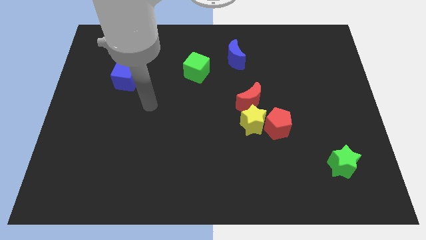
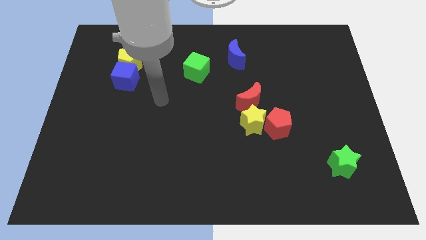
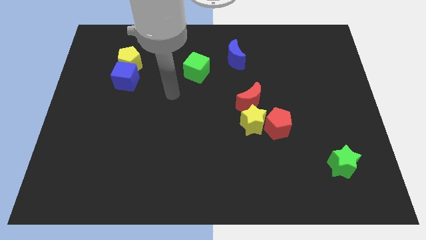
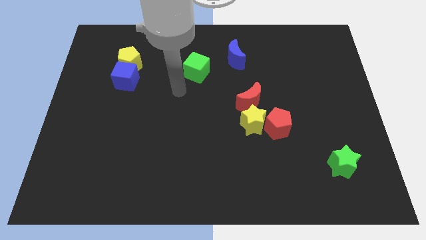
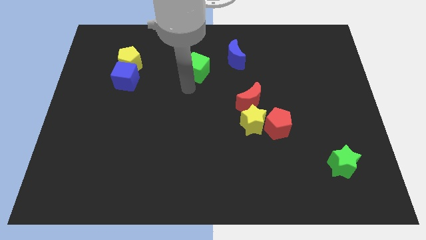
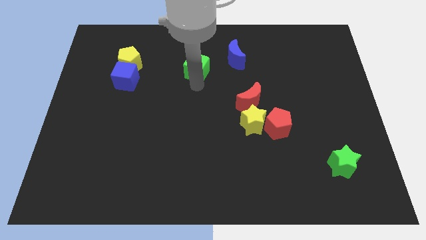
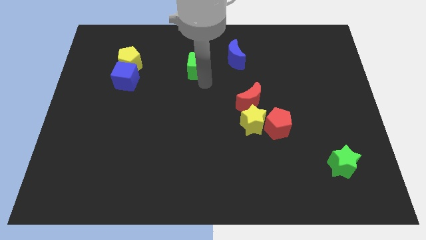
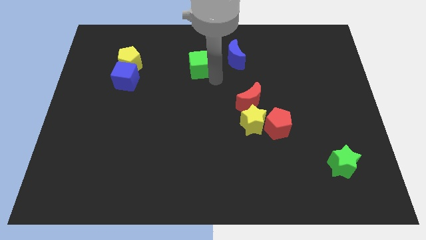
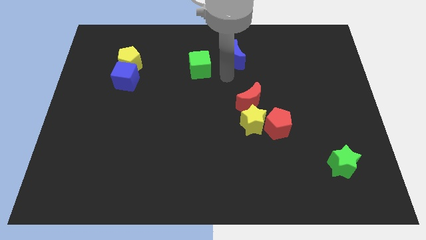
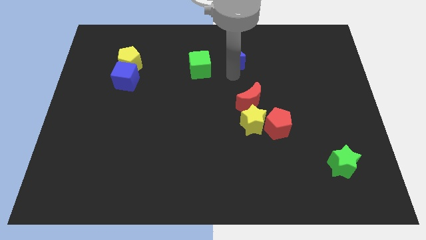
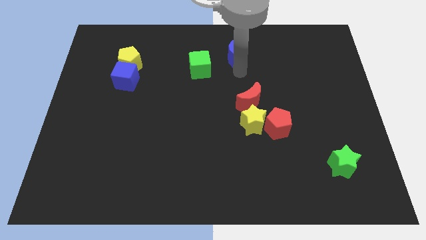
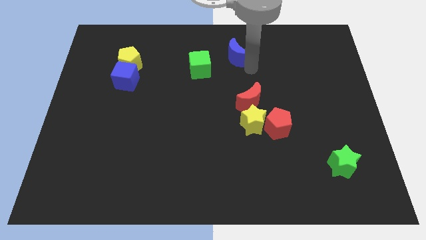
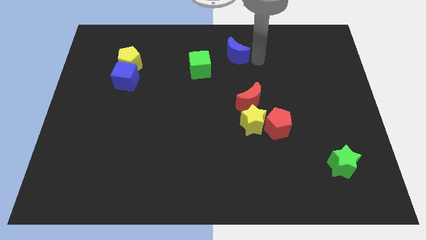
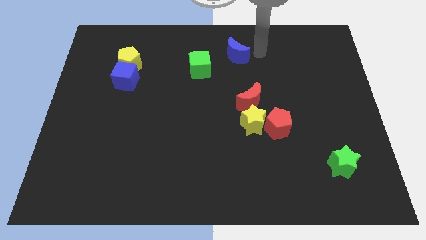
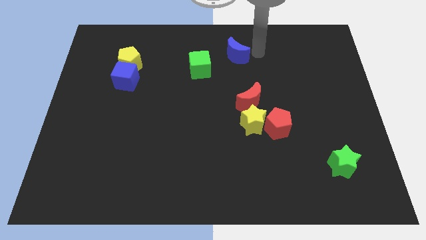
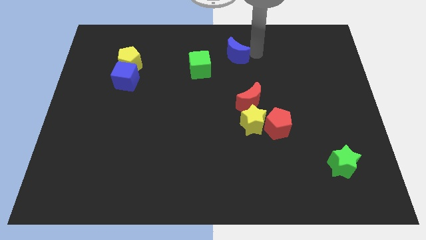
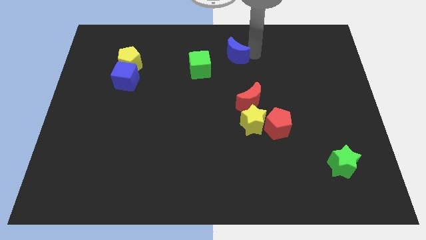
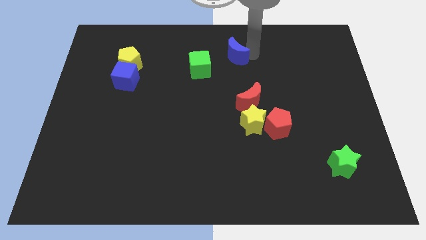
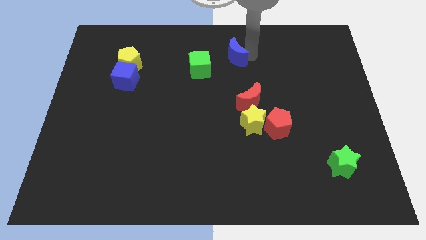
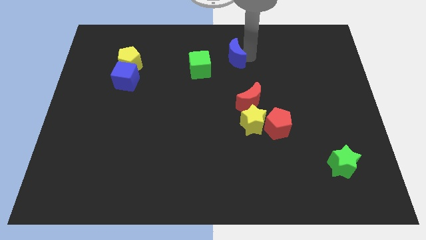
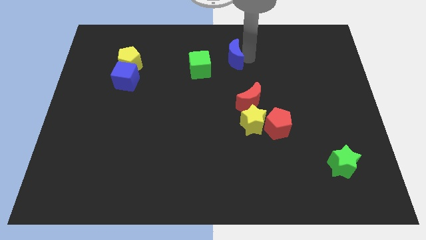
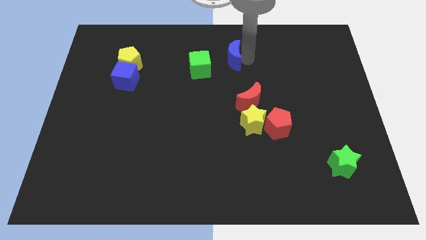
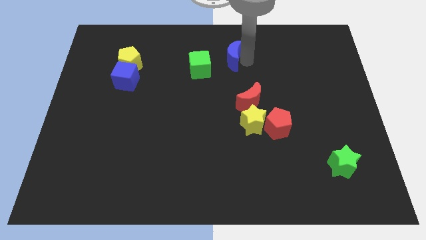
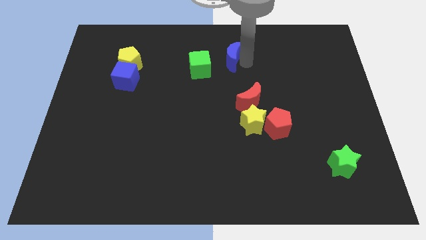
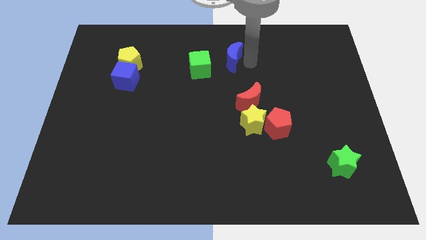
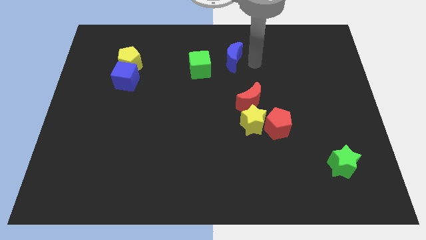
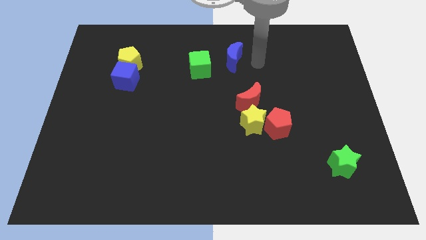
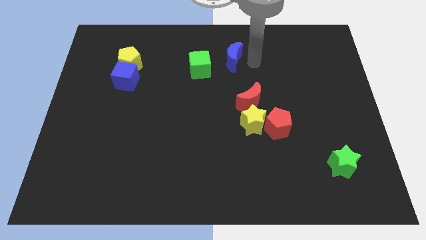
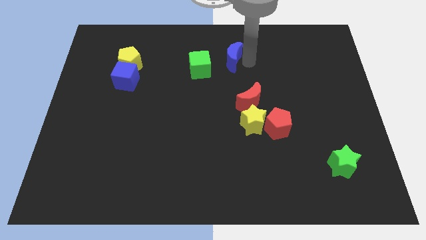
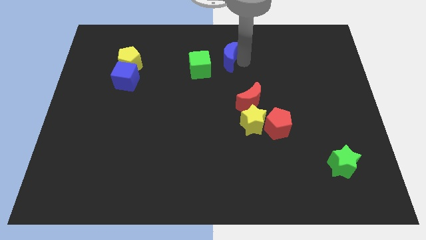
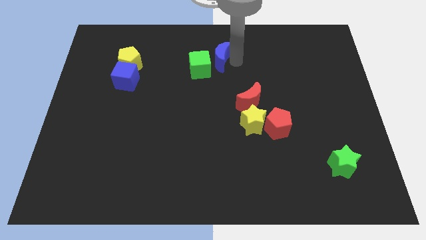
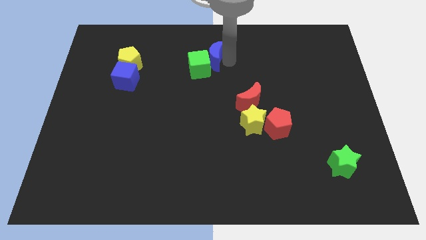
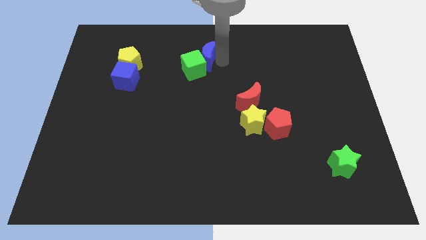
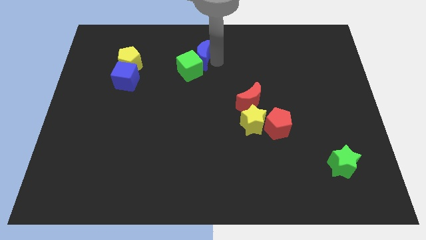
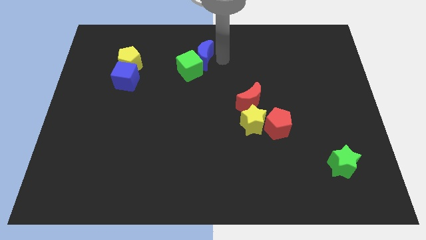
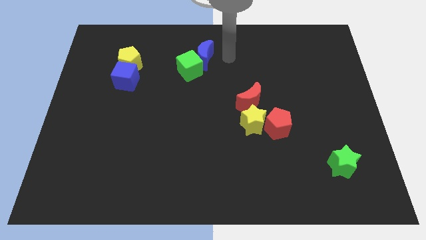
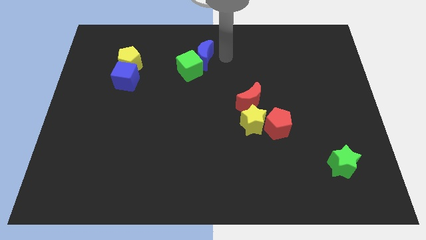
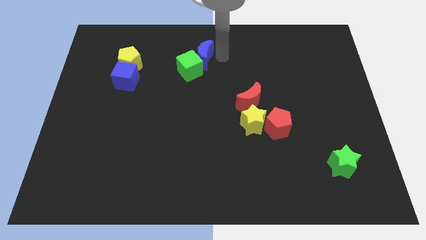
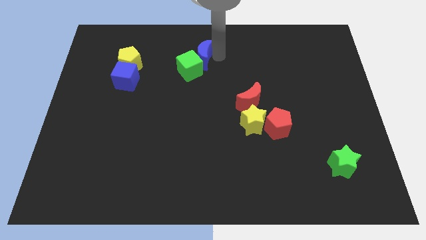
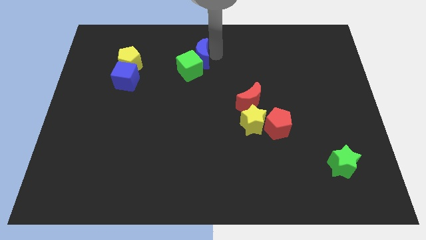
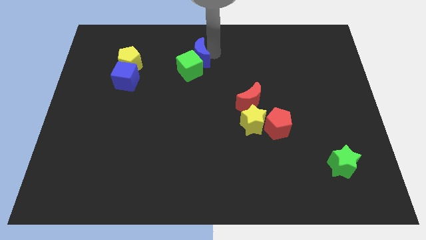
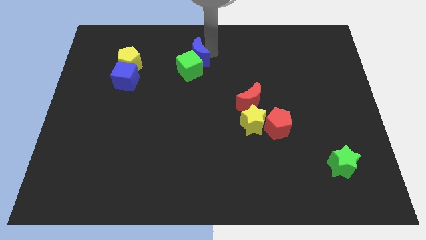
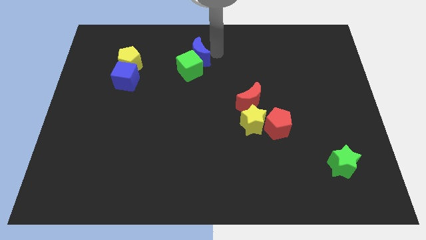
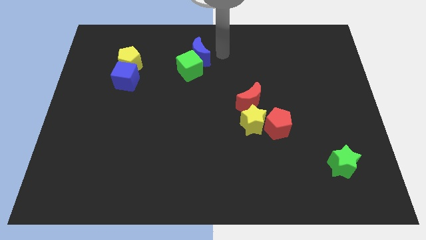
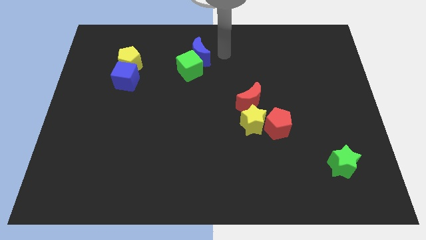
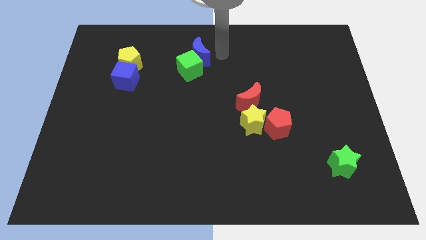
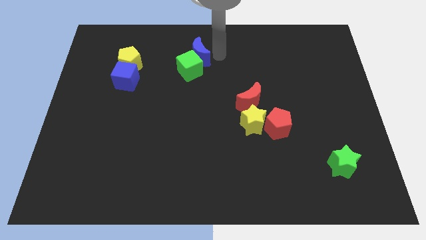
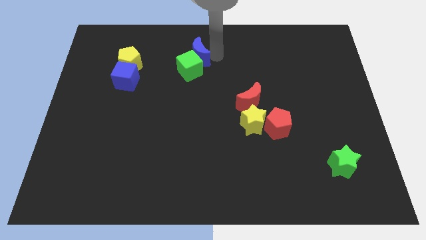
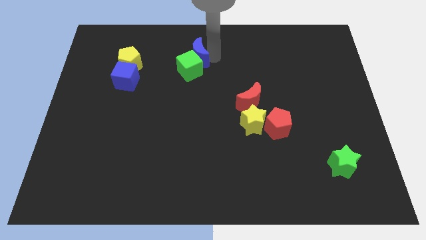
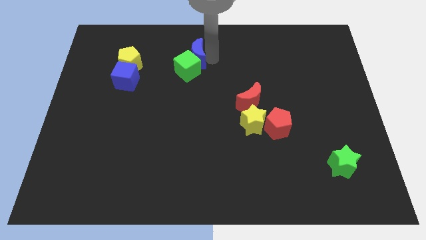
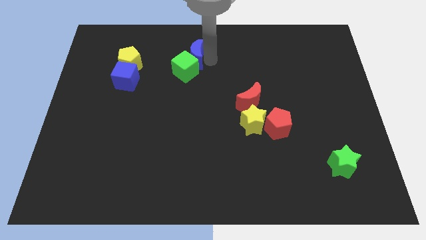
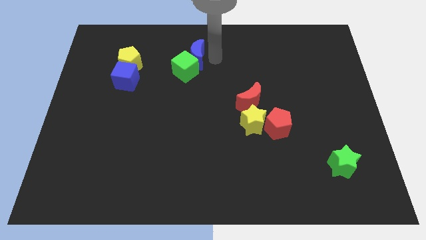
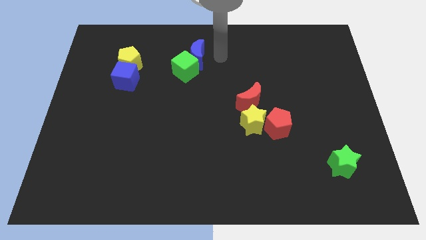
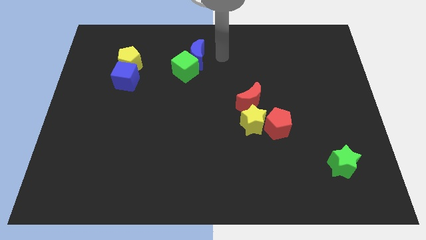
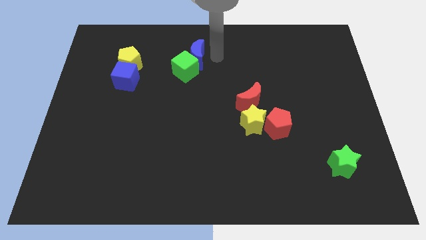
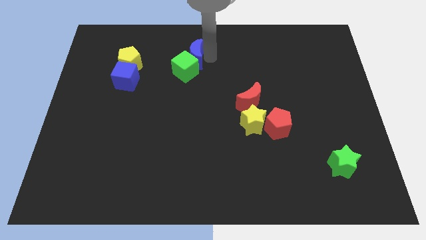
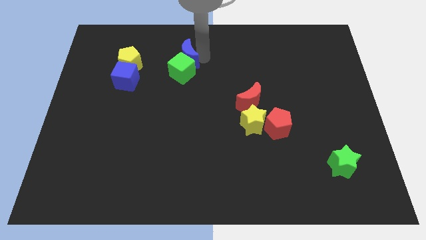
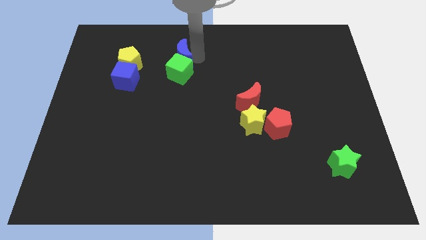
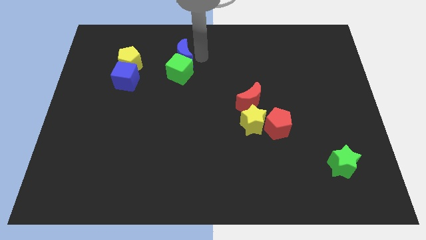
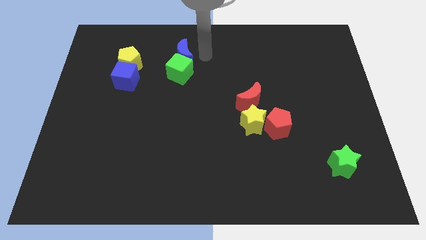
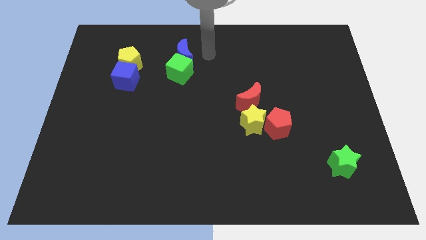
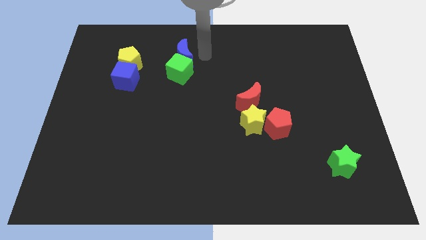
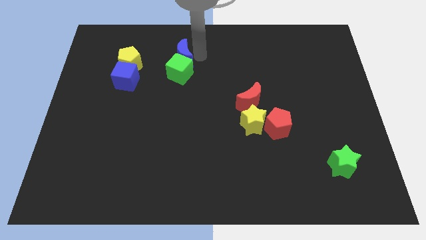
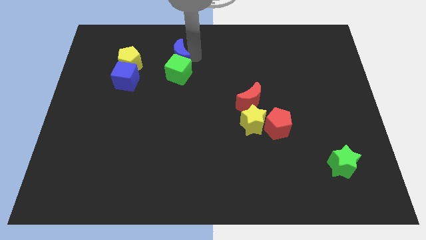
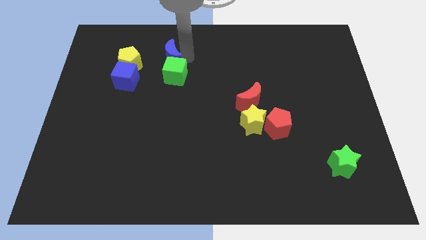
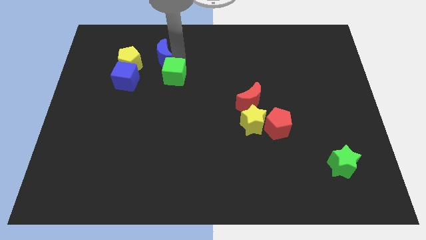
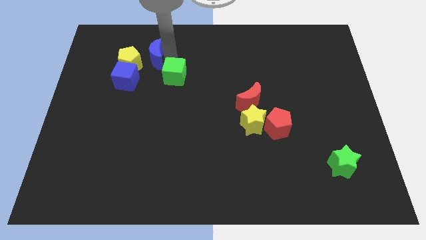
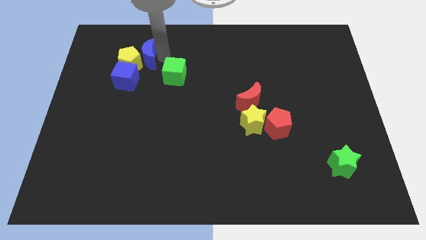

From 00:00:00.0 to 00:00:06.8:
move the blue moon next to the yellow pentagon

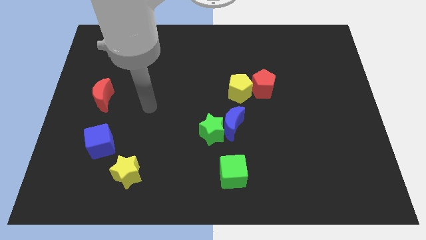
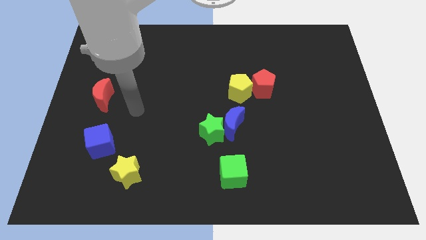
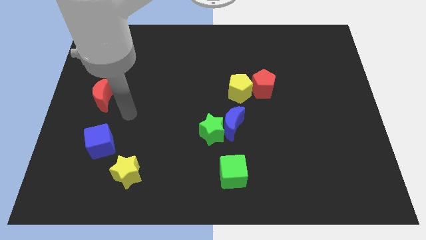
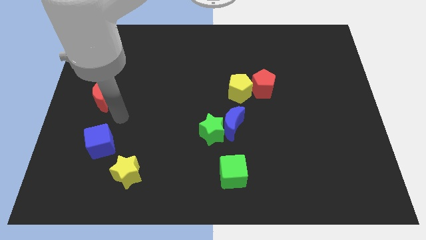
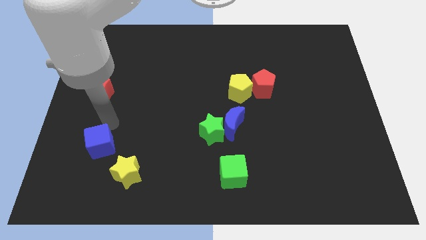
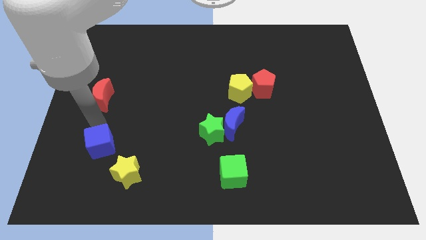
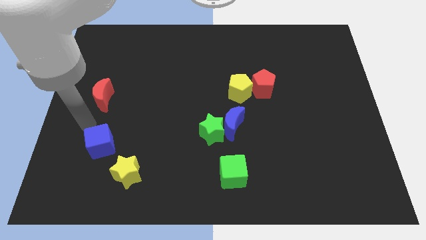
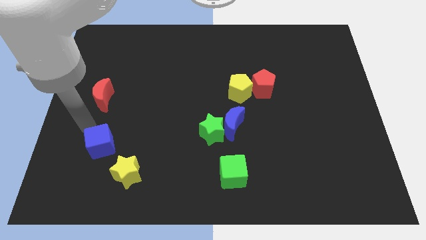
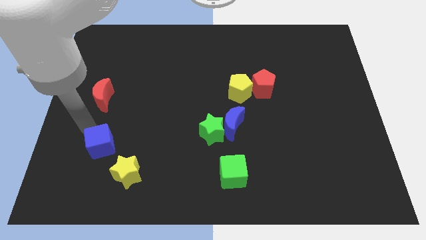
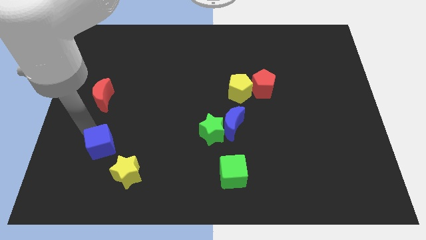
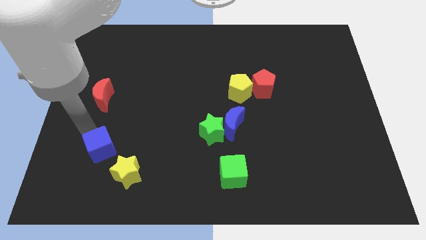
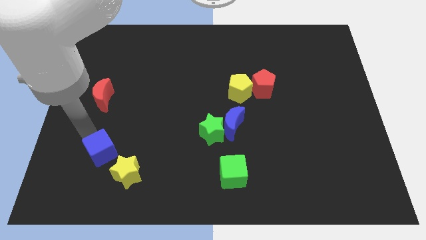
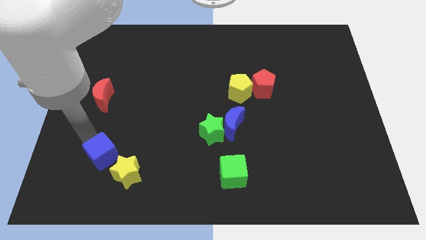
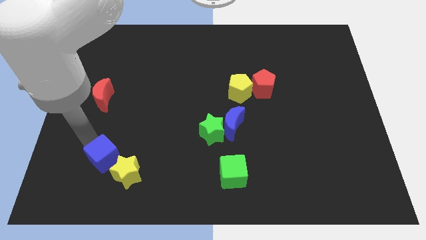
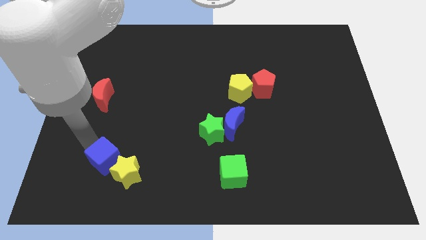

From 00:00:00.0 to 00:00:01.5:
push the blue cube towards the yellow star
